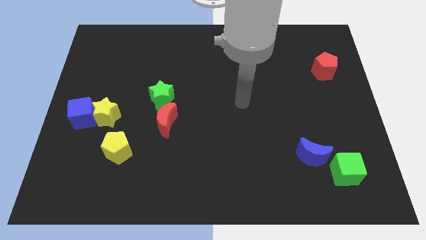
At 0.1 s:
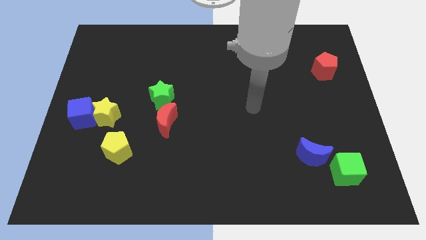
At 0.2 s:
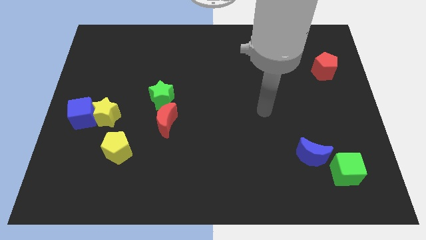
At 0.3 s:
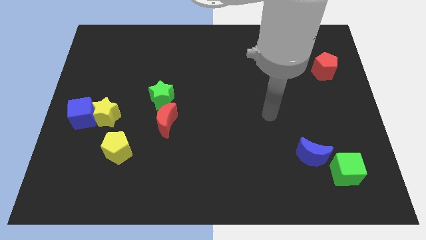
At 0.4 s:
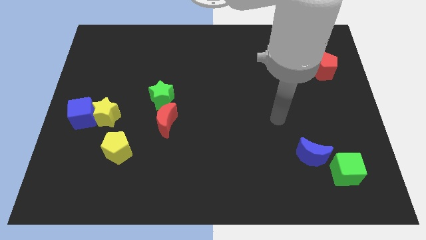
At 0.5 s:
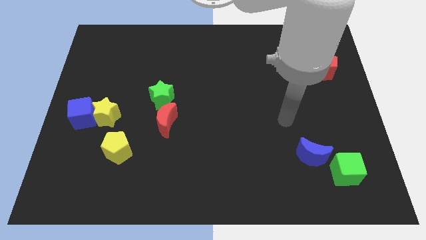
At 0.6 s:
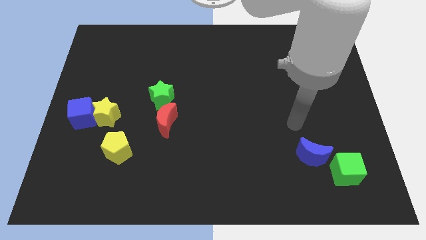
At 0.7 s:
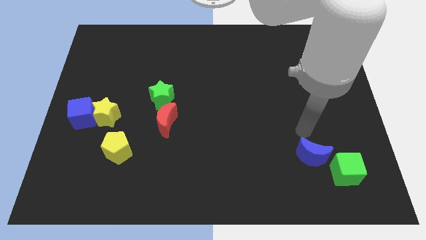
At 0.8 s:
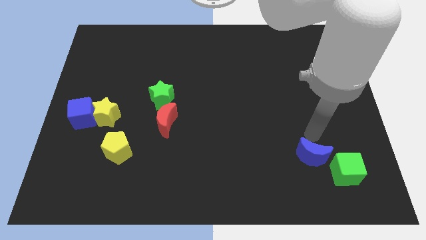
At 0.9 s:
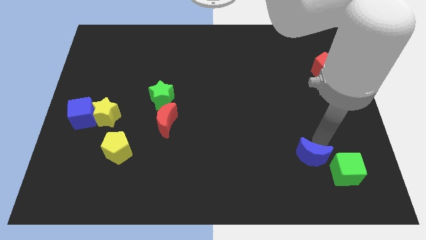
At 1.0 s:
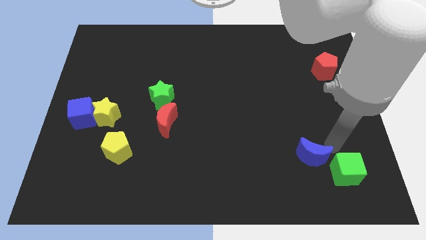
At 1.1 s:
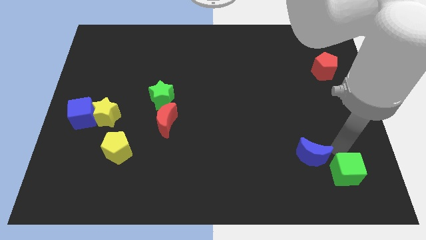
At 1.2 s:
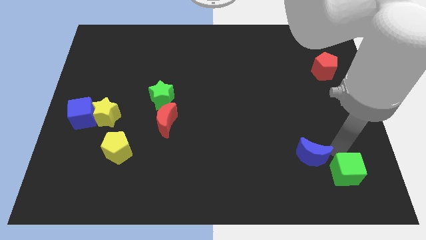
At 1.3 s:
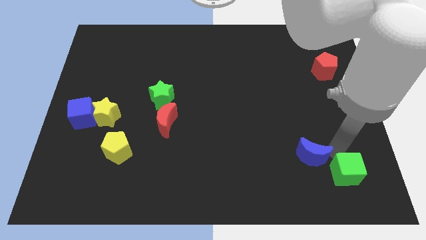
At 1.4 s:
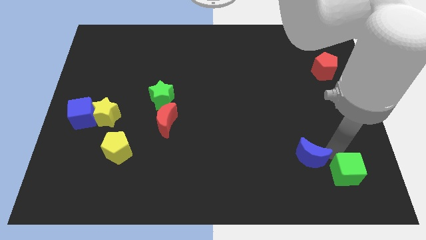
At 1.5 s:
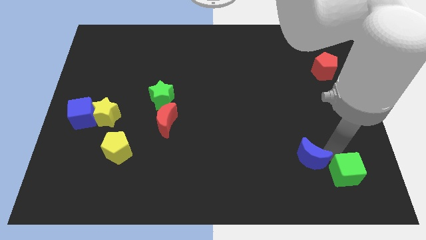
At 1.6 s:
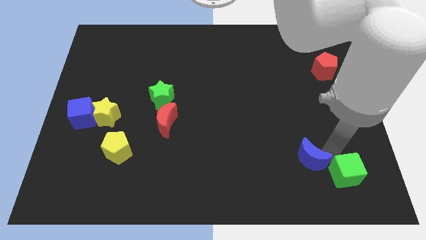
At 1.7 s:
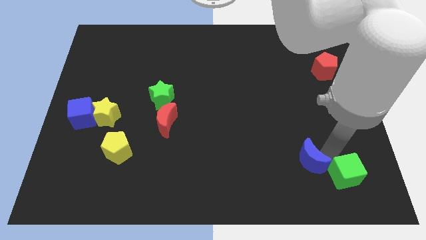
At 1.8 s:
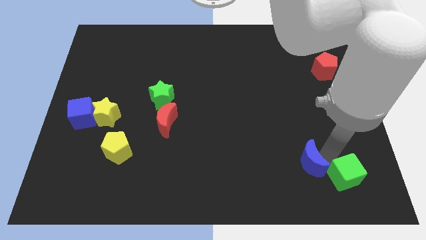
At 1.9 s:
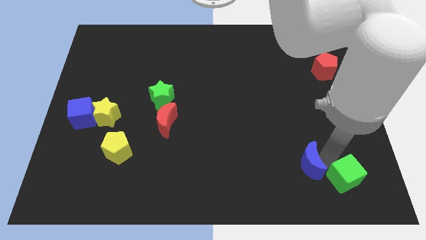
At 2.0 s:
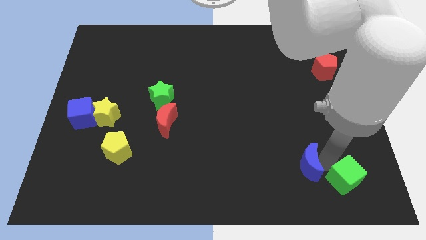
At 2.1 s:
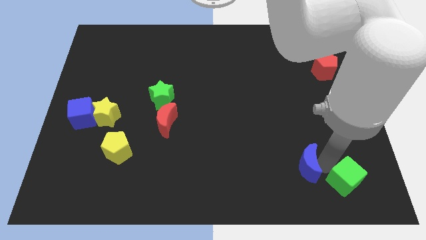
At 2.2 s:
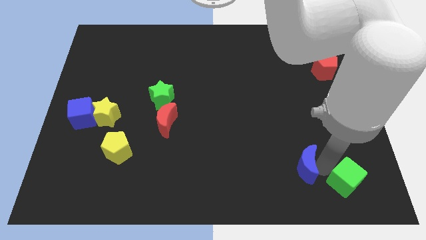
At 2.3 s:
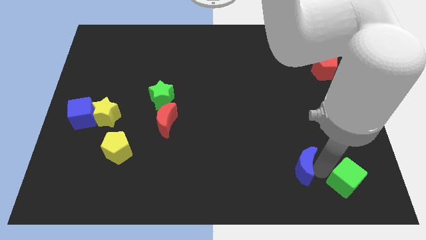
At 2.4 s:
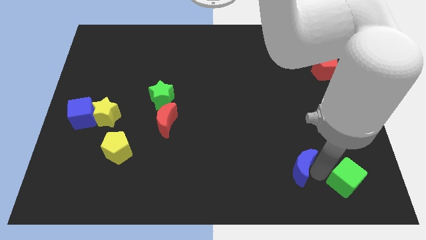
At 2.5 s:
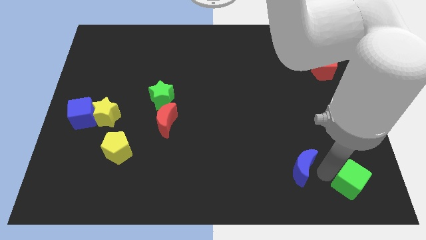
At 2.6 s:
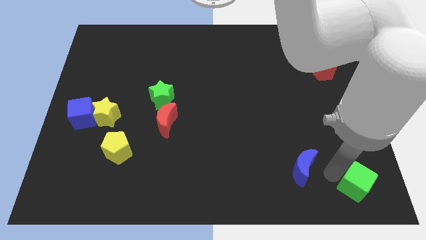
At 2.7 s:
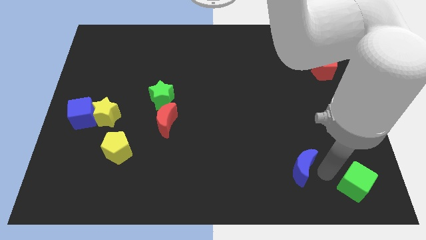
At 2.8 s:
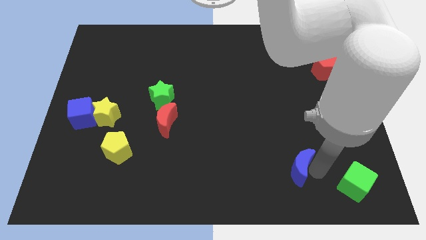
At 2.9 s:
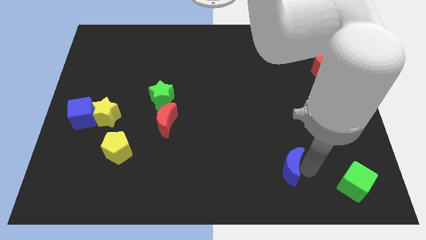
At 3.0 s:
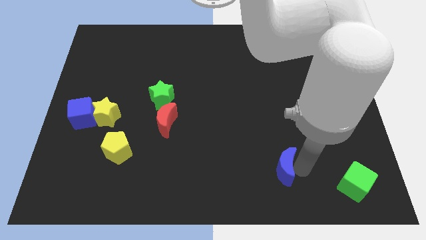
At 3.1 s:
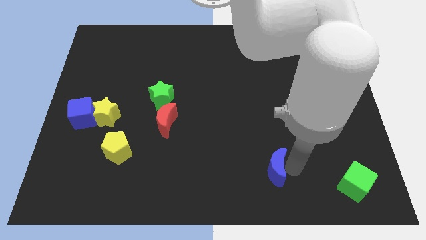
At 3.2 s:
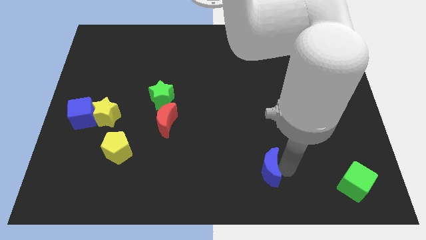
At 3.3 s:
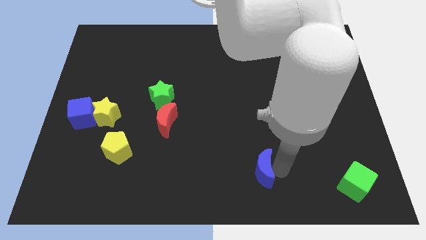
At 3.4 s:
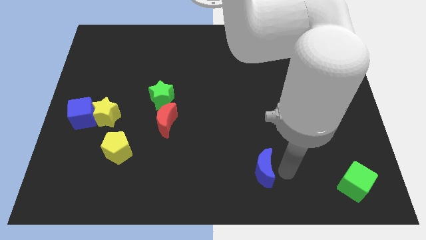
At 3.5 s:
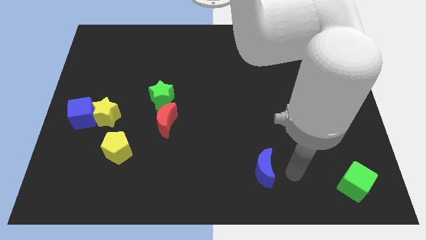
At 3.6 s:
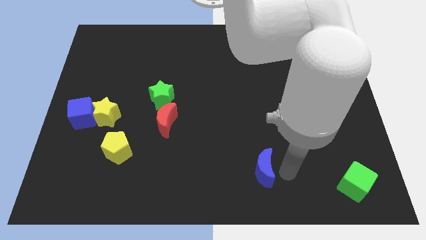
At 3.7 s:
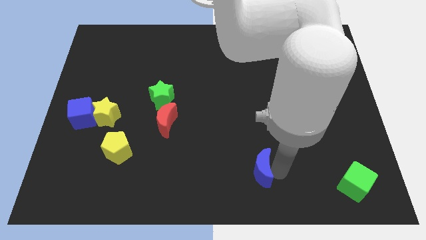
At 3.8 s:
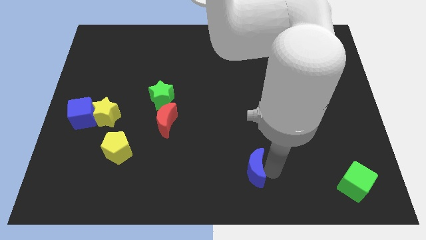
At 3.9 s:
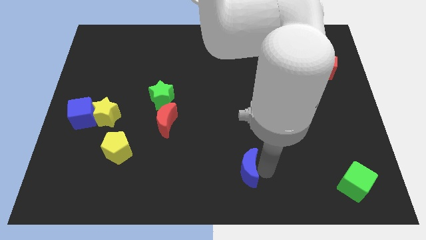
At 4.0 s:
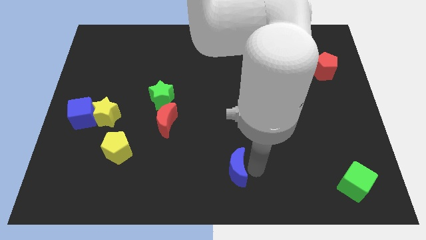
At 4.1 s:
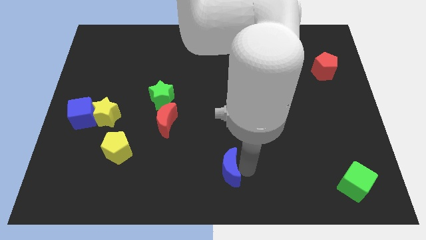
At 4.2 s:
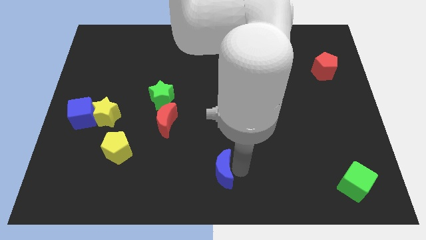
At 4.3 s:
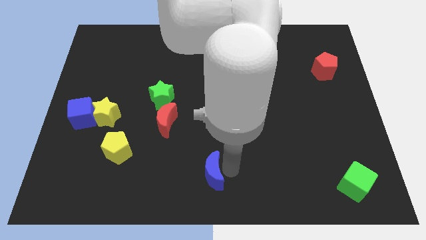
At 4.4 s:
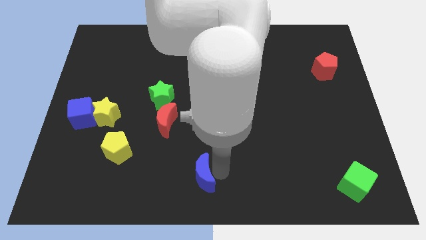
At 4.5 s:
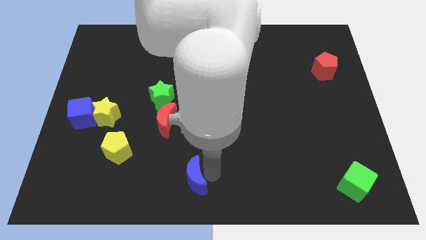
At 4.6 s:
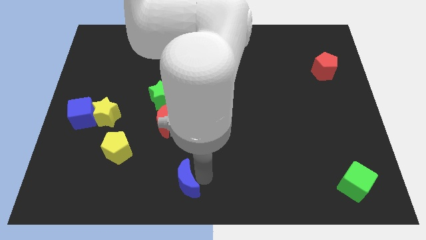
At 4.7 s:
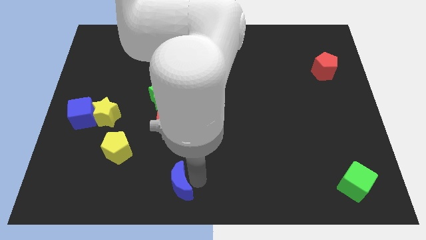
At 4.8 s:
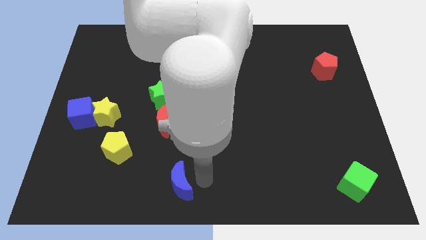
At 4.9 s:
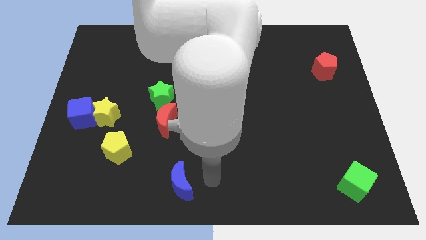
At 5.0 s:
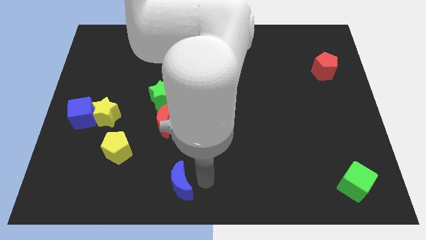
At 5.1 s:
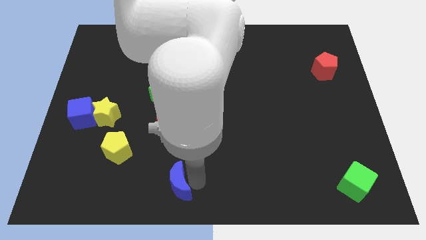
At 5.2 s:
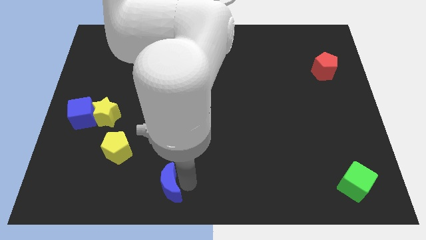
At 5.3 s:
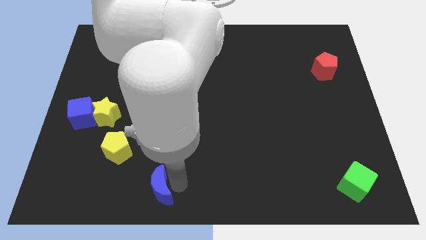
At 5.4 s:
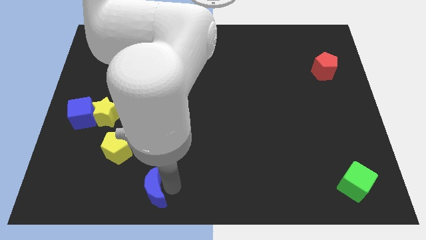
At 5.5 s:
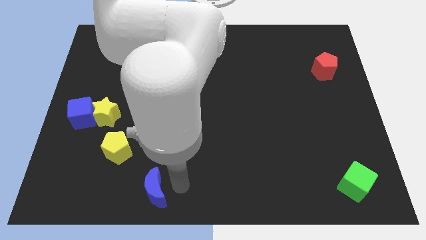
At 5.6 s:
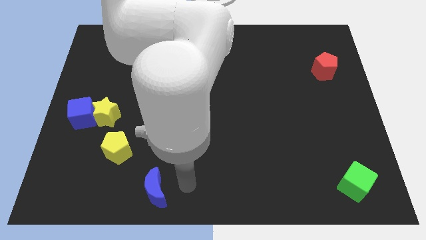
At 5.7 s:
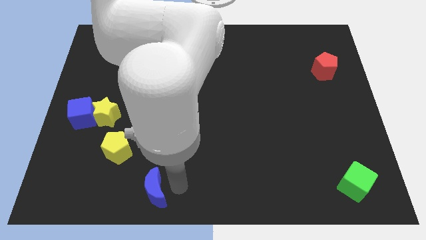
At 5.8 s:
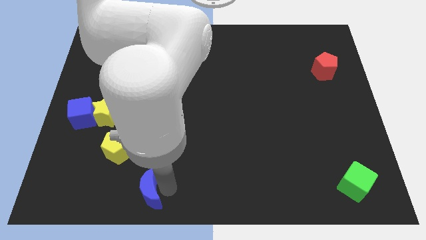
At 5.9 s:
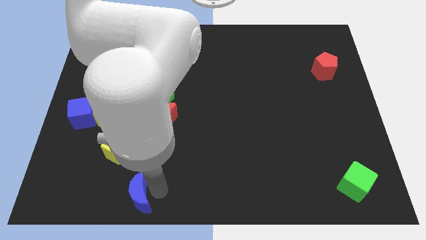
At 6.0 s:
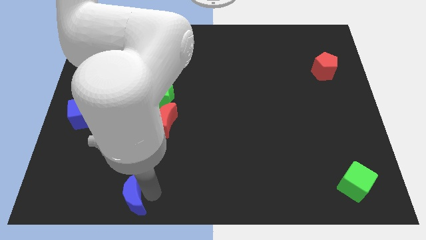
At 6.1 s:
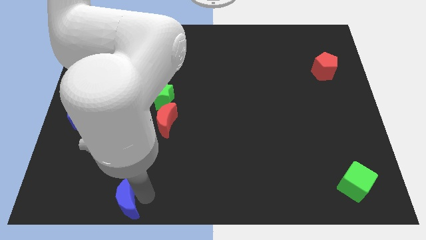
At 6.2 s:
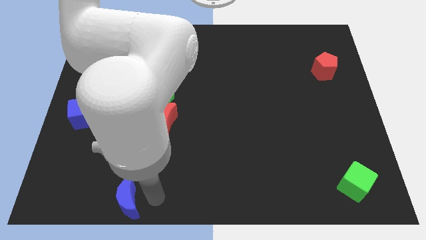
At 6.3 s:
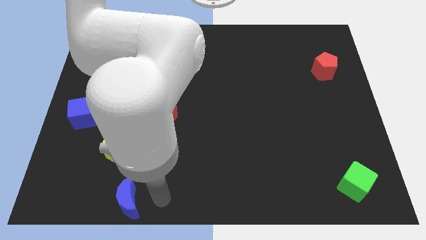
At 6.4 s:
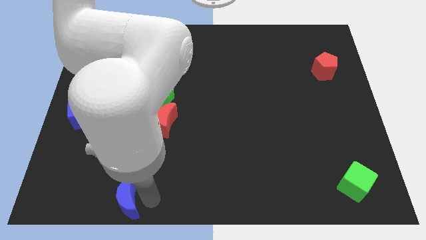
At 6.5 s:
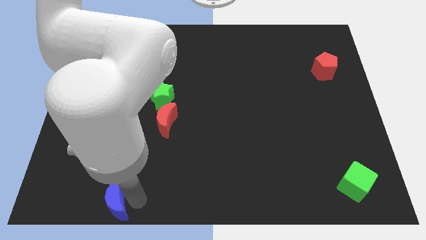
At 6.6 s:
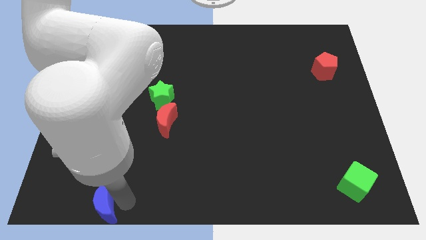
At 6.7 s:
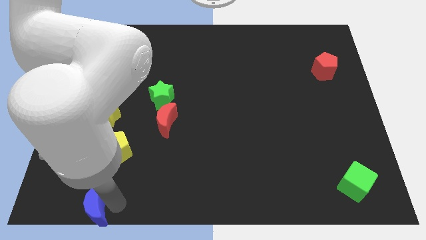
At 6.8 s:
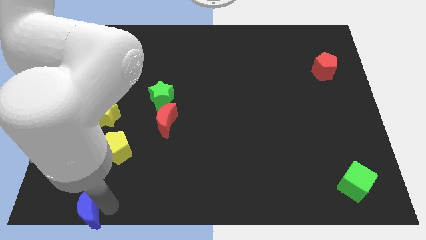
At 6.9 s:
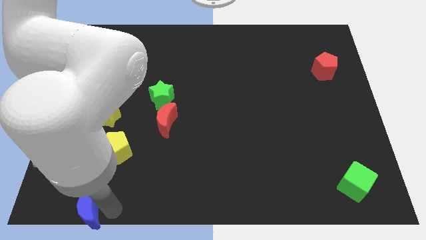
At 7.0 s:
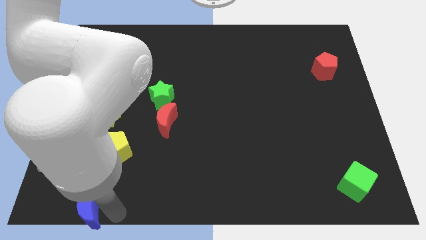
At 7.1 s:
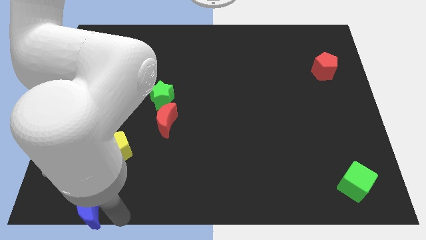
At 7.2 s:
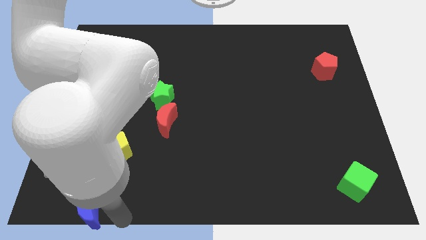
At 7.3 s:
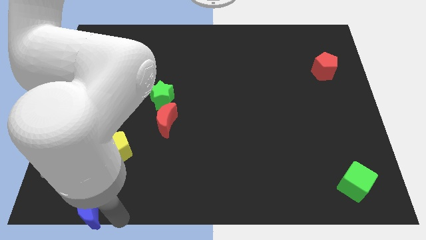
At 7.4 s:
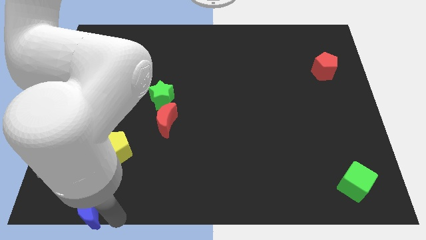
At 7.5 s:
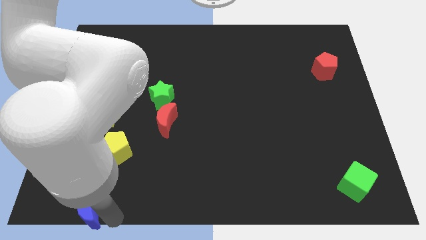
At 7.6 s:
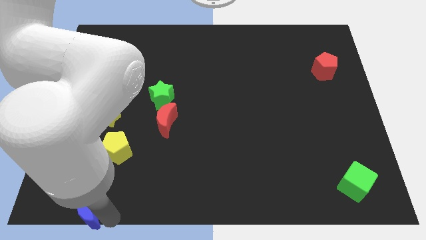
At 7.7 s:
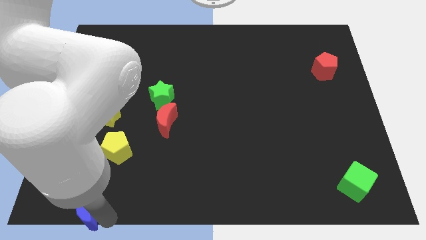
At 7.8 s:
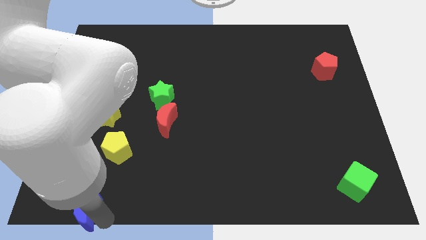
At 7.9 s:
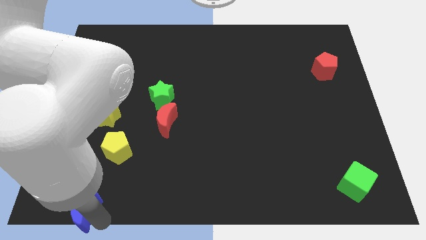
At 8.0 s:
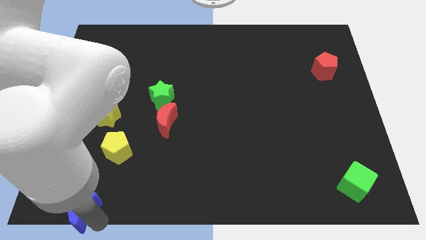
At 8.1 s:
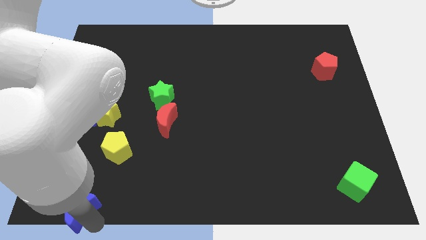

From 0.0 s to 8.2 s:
move the blue moon to the bottom left of the board
